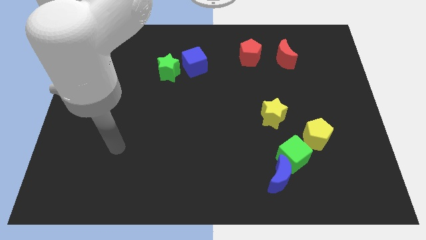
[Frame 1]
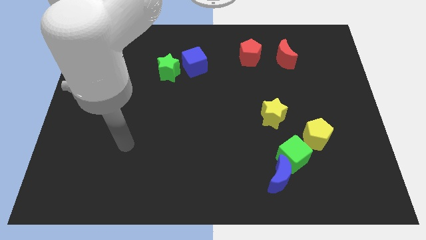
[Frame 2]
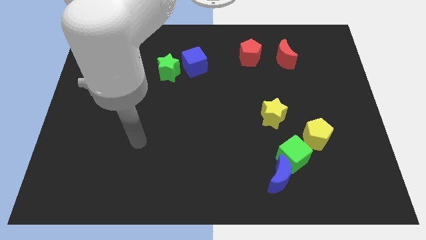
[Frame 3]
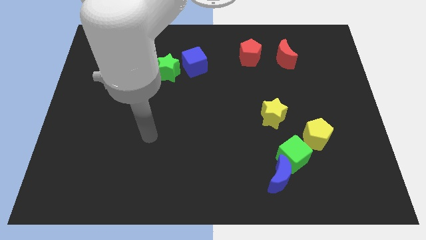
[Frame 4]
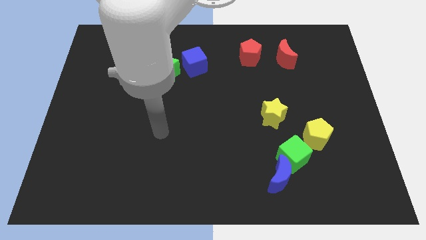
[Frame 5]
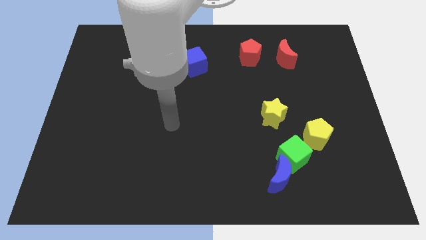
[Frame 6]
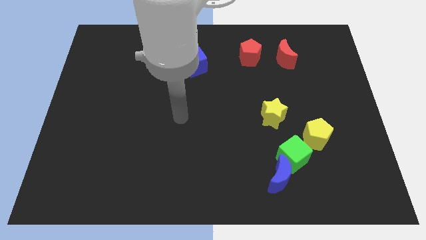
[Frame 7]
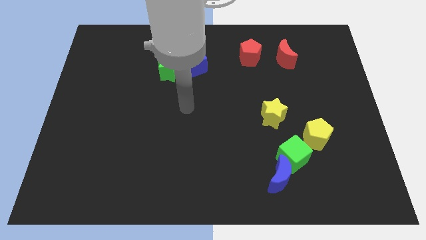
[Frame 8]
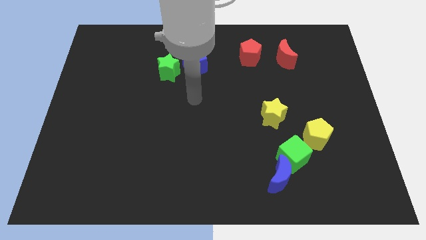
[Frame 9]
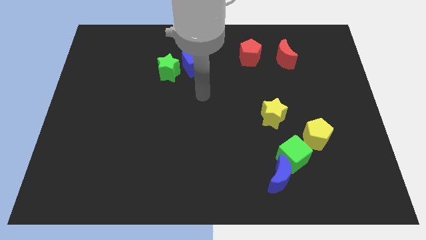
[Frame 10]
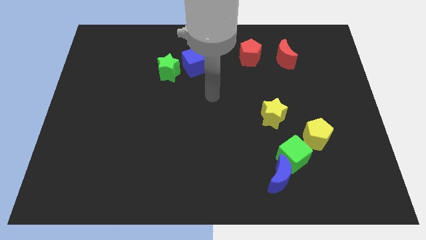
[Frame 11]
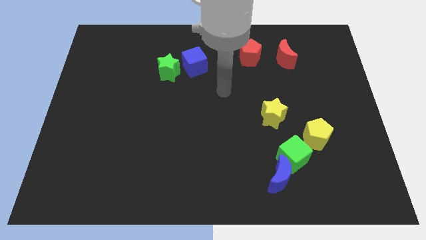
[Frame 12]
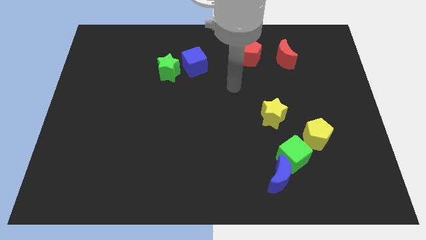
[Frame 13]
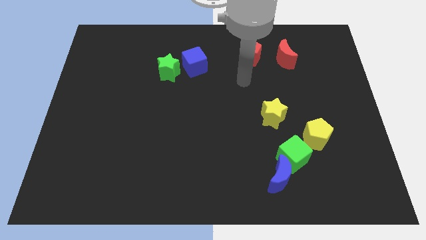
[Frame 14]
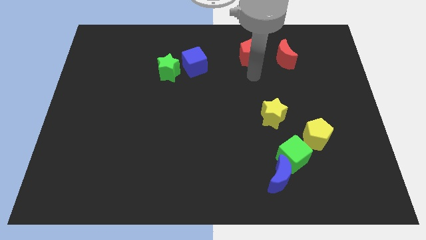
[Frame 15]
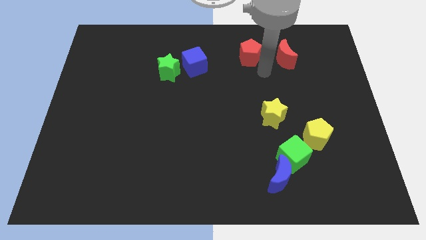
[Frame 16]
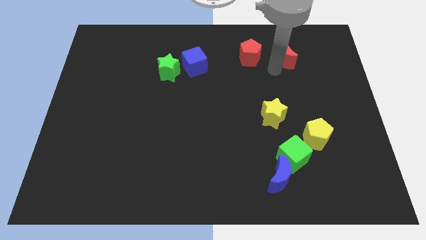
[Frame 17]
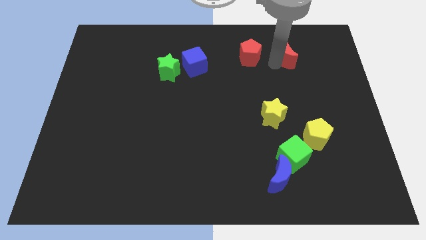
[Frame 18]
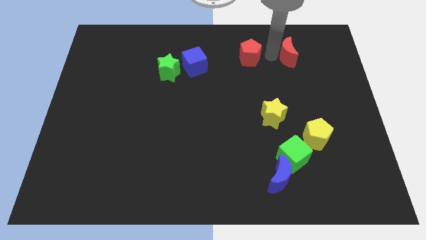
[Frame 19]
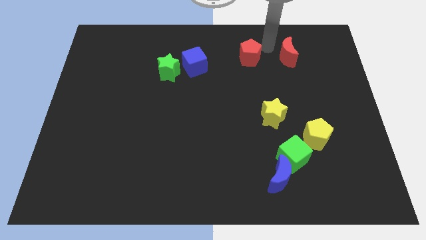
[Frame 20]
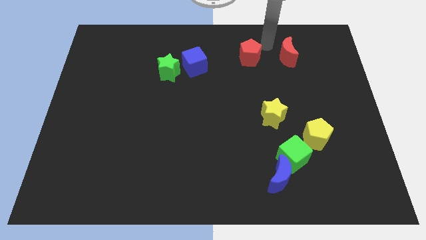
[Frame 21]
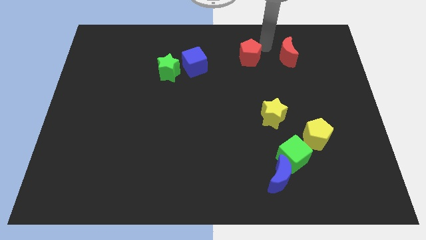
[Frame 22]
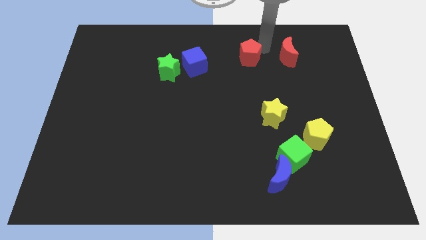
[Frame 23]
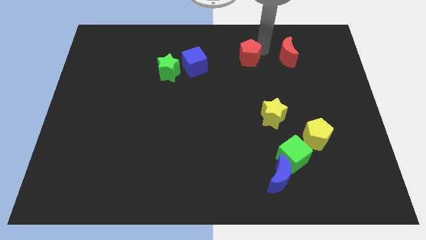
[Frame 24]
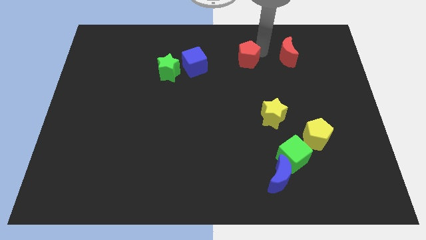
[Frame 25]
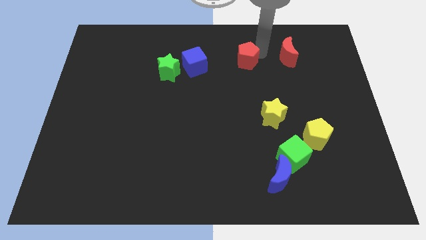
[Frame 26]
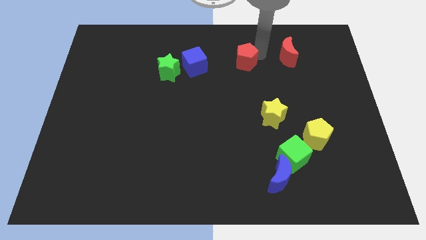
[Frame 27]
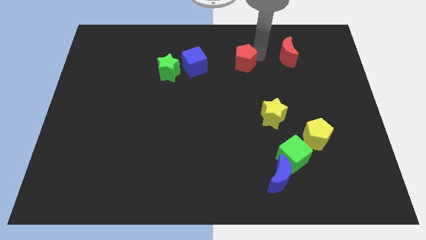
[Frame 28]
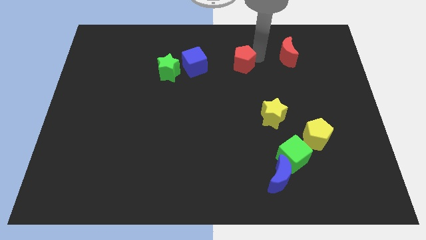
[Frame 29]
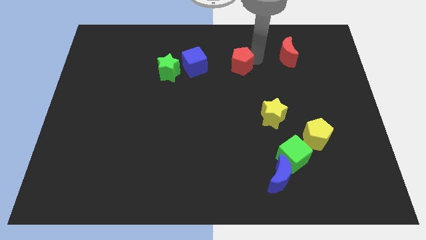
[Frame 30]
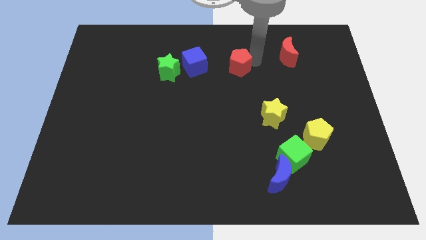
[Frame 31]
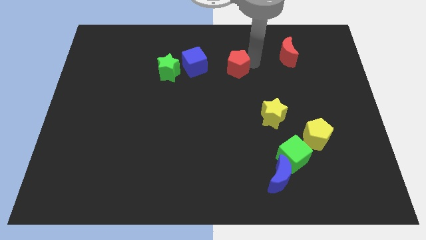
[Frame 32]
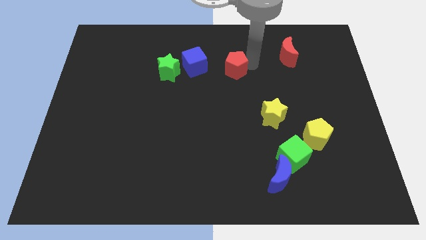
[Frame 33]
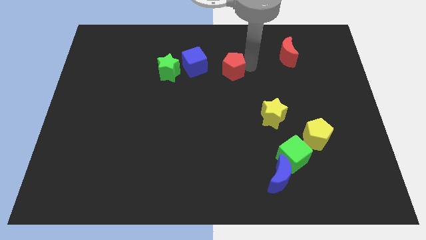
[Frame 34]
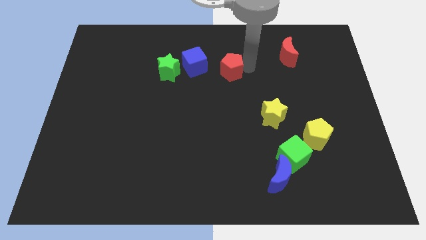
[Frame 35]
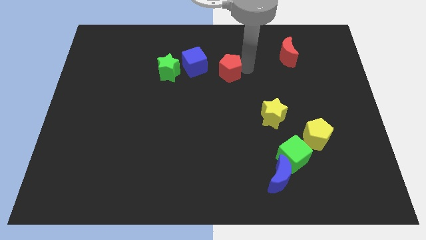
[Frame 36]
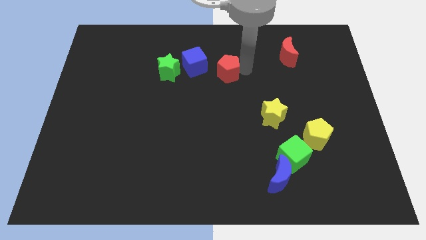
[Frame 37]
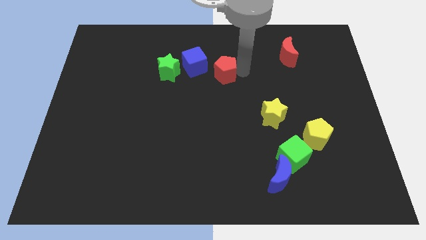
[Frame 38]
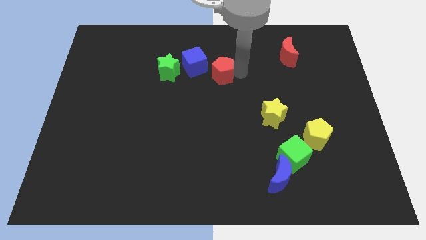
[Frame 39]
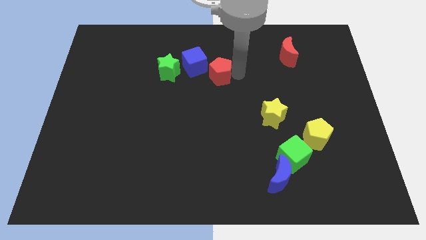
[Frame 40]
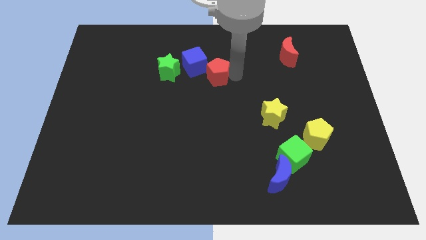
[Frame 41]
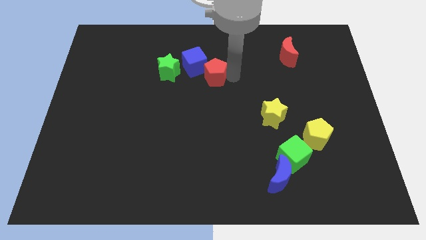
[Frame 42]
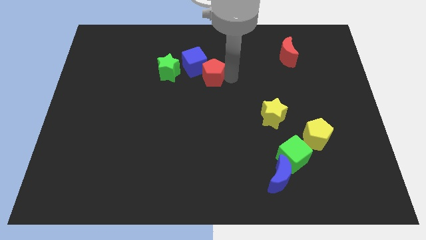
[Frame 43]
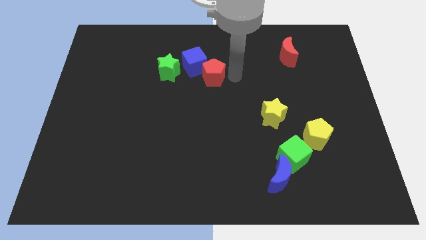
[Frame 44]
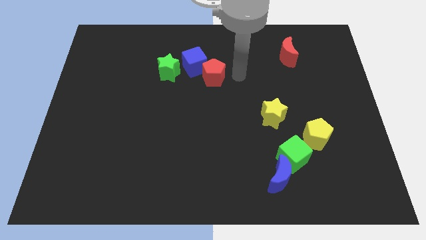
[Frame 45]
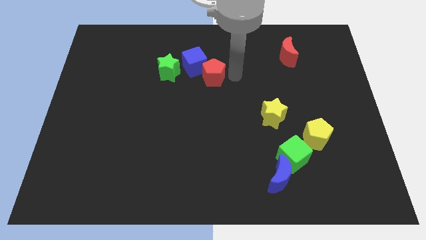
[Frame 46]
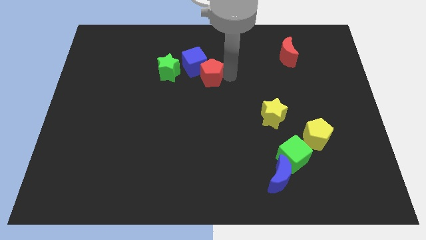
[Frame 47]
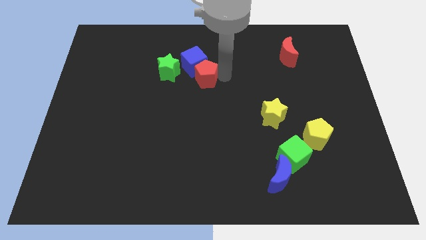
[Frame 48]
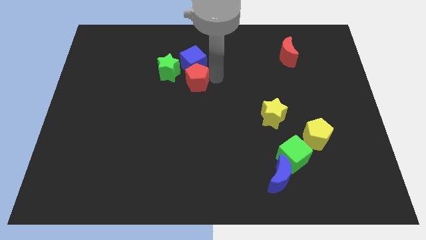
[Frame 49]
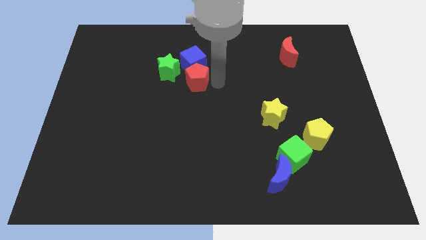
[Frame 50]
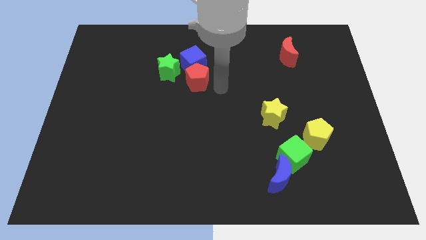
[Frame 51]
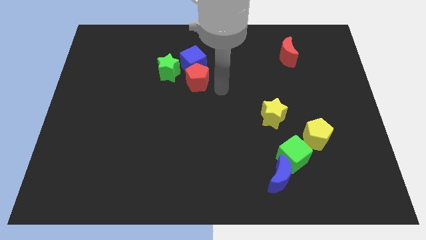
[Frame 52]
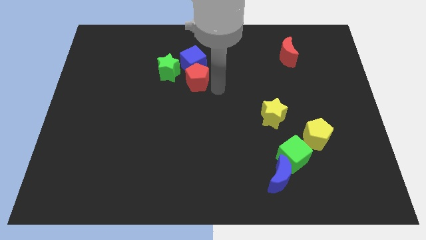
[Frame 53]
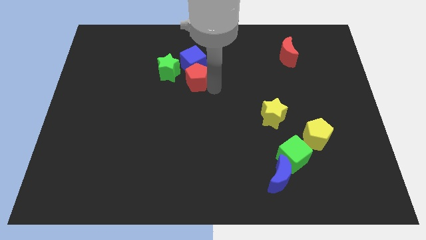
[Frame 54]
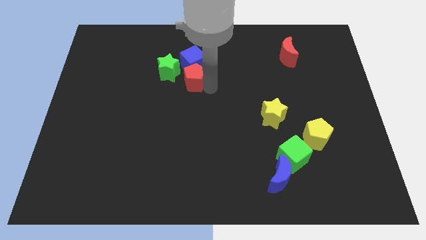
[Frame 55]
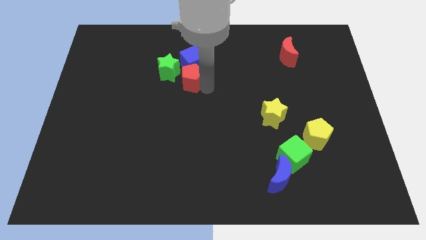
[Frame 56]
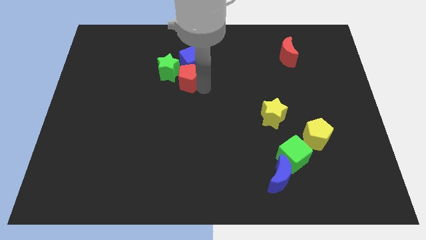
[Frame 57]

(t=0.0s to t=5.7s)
put the red pentagon close to the green star

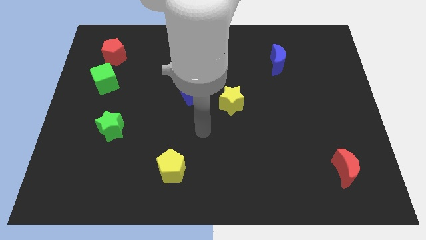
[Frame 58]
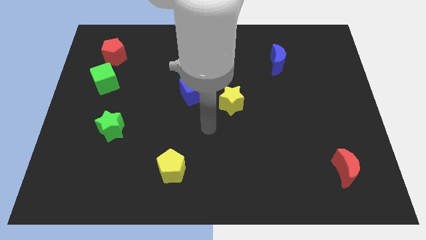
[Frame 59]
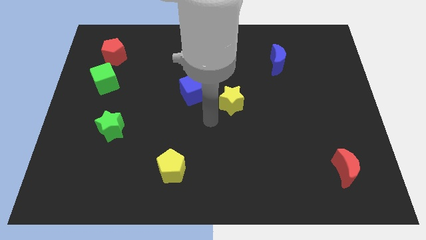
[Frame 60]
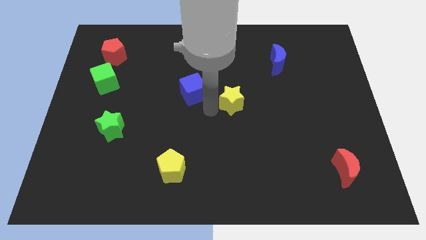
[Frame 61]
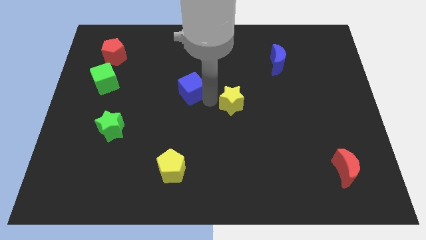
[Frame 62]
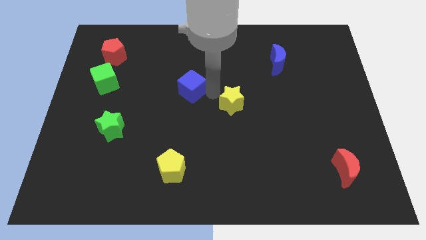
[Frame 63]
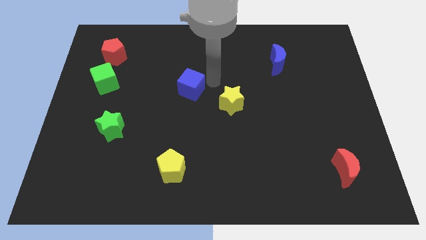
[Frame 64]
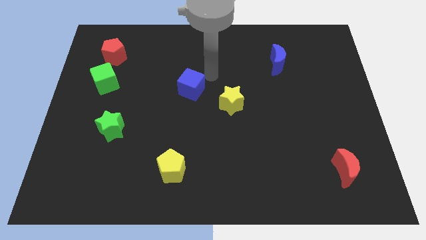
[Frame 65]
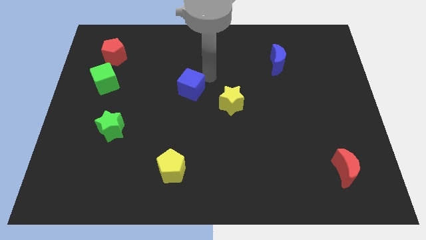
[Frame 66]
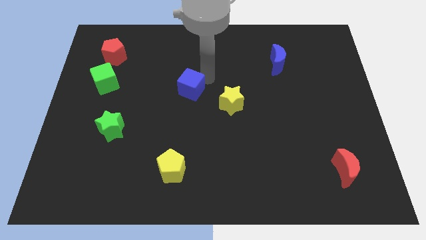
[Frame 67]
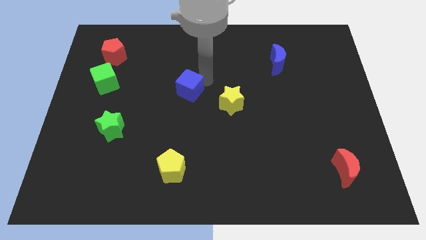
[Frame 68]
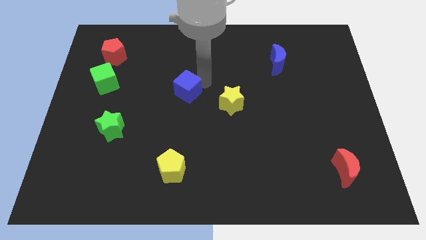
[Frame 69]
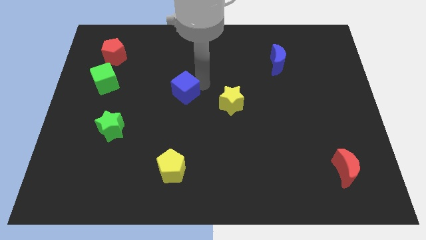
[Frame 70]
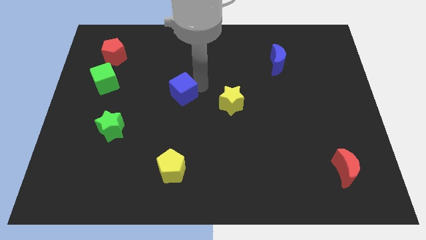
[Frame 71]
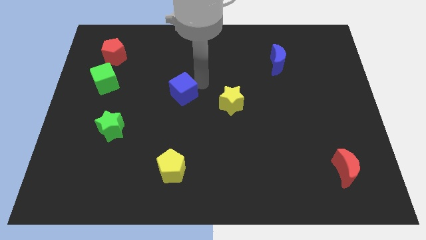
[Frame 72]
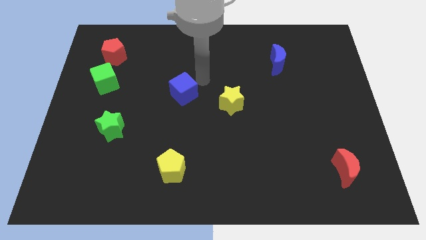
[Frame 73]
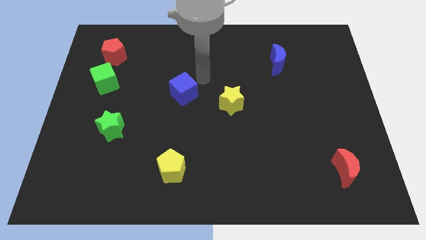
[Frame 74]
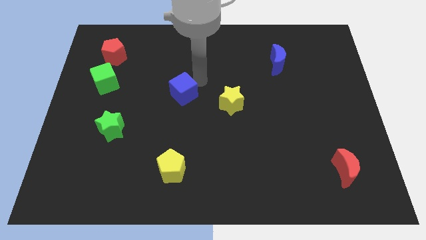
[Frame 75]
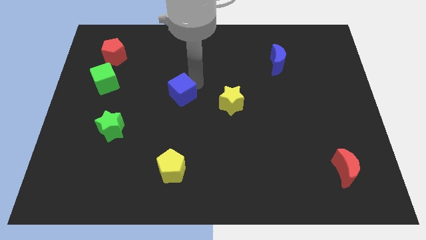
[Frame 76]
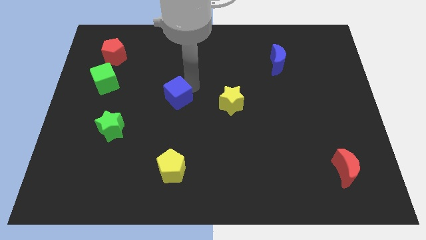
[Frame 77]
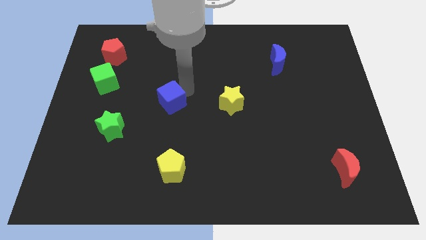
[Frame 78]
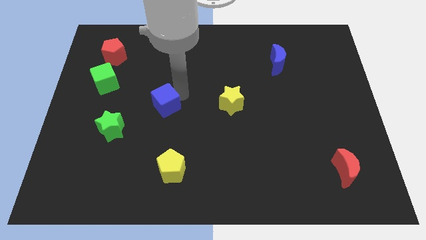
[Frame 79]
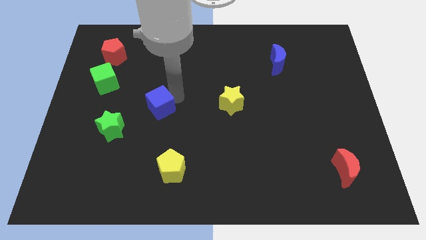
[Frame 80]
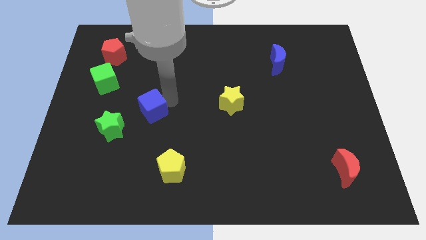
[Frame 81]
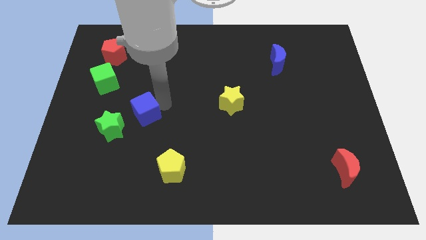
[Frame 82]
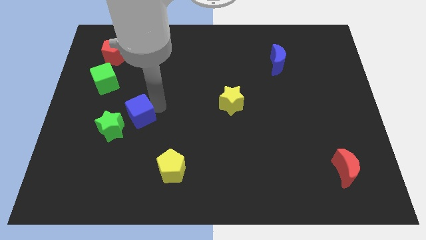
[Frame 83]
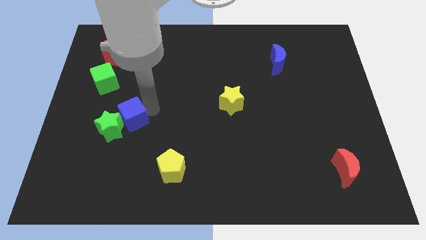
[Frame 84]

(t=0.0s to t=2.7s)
push the blue cube towards the green star
